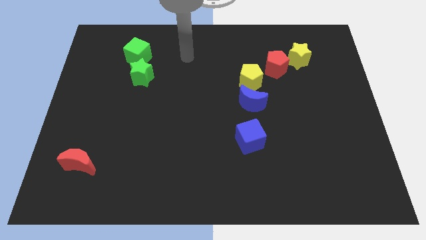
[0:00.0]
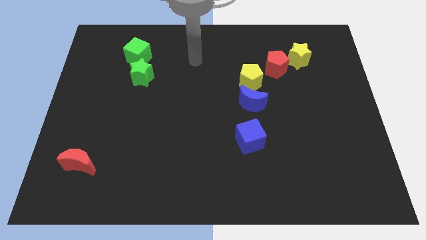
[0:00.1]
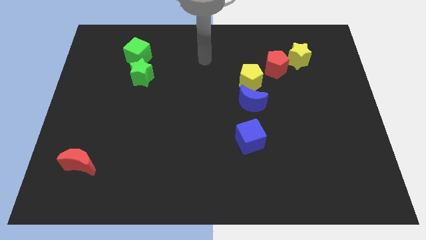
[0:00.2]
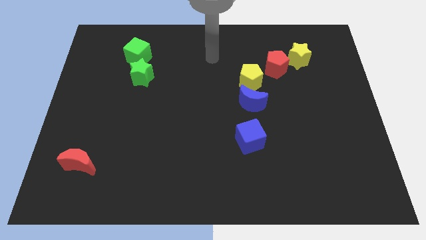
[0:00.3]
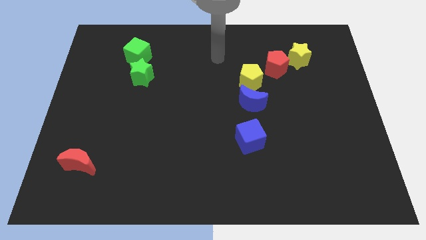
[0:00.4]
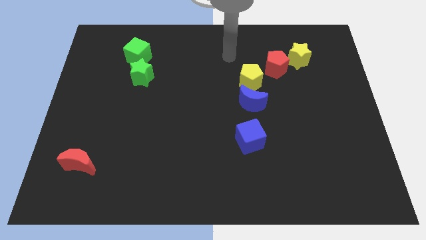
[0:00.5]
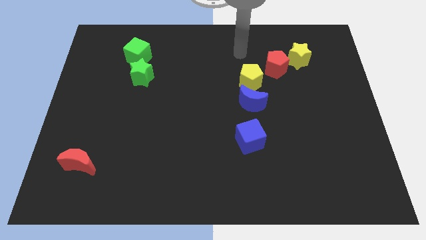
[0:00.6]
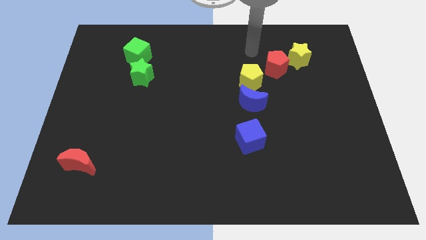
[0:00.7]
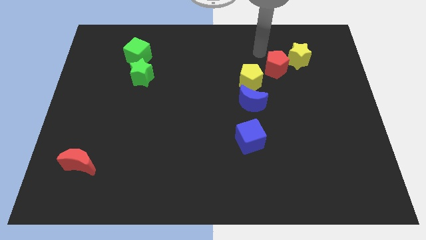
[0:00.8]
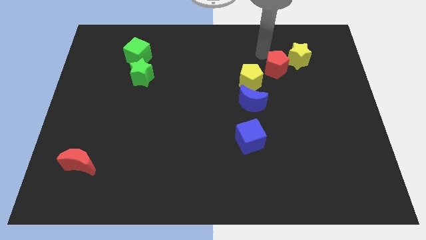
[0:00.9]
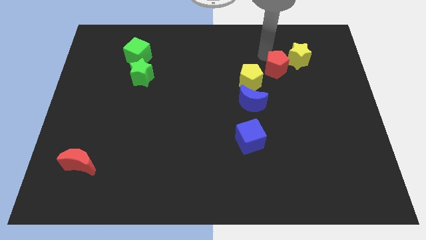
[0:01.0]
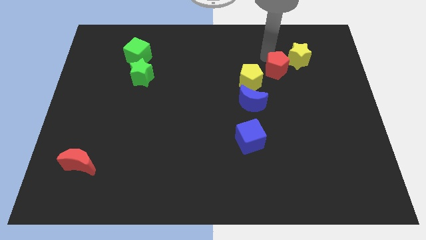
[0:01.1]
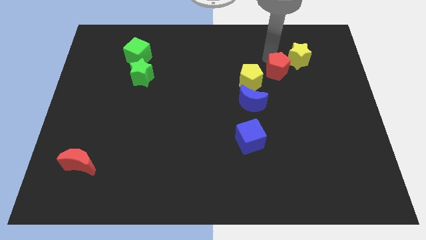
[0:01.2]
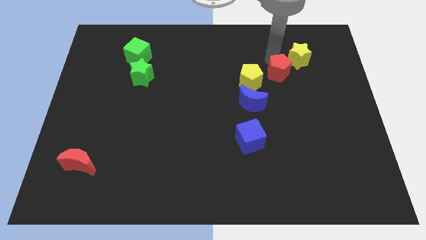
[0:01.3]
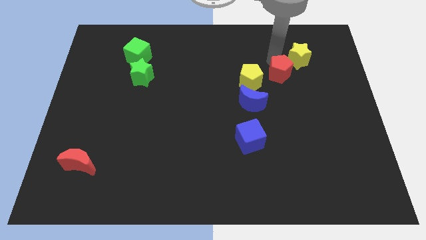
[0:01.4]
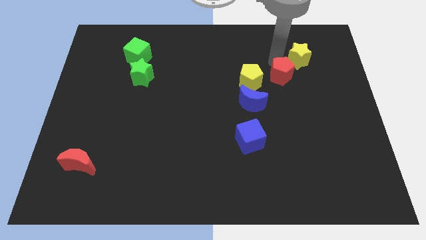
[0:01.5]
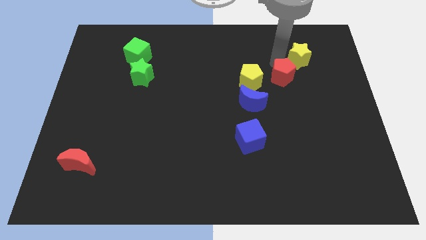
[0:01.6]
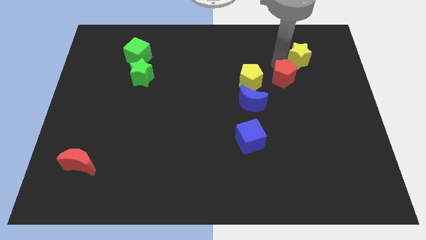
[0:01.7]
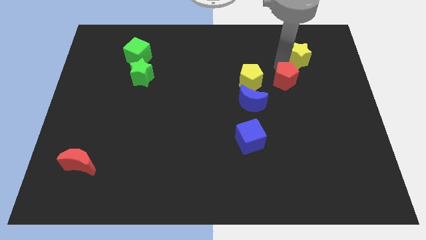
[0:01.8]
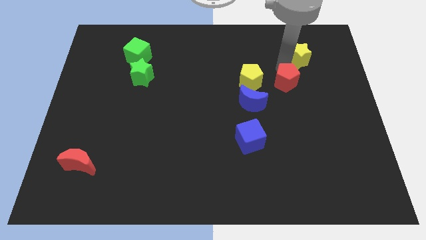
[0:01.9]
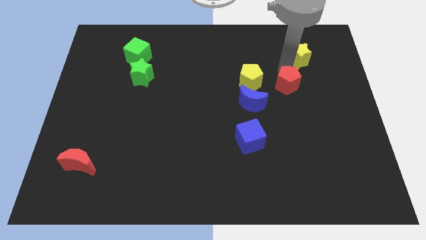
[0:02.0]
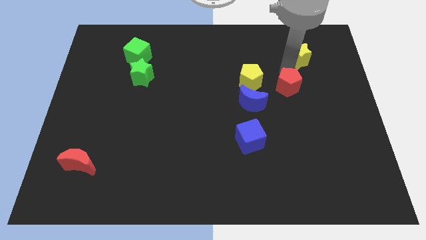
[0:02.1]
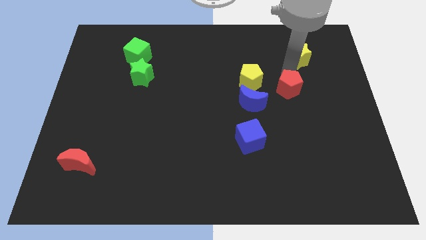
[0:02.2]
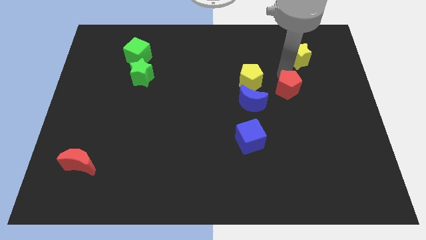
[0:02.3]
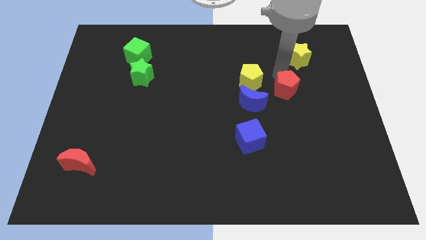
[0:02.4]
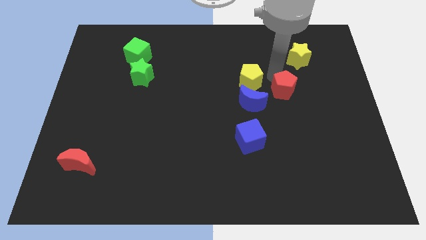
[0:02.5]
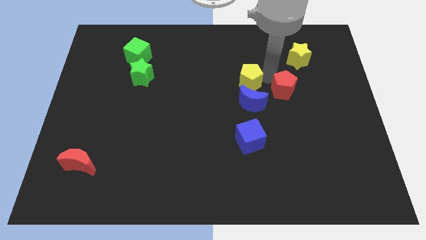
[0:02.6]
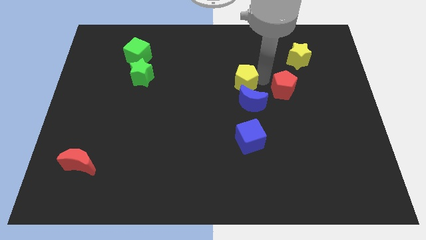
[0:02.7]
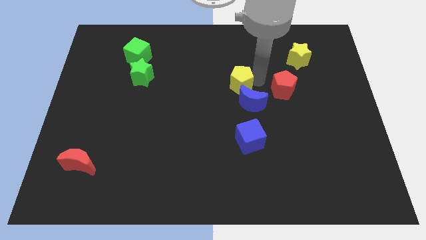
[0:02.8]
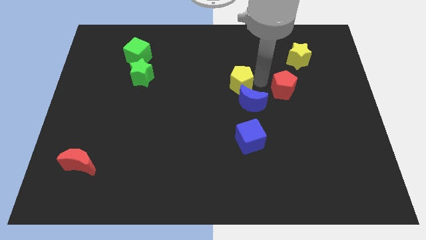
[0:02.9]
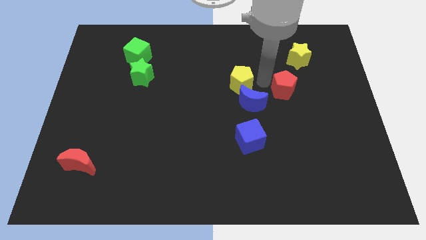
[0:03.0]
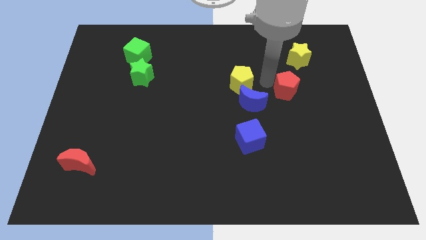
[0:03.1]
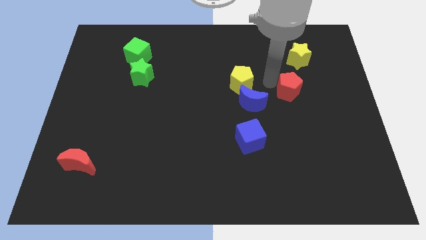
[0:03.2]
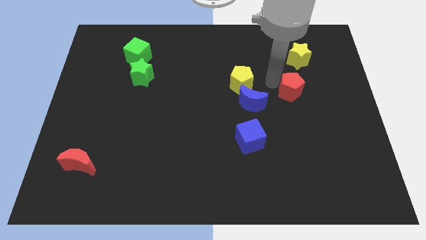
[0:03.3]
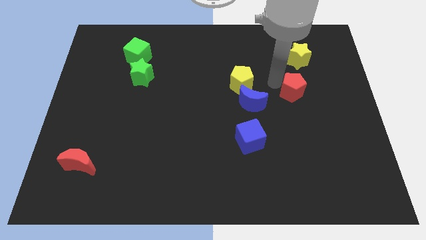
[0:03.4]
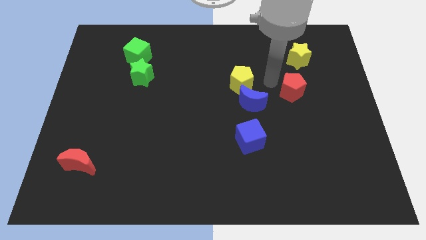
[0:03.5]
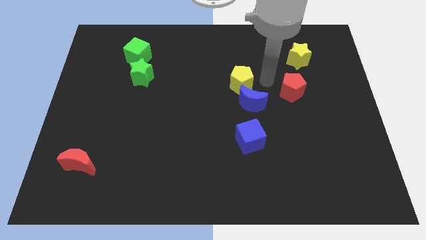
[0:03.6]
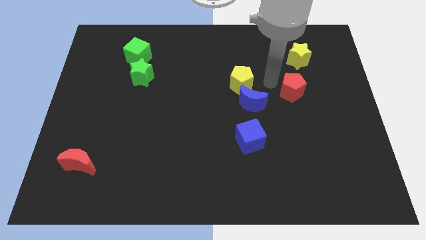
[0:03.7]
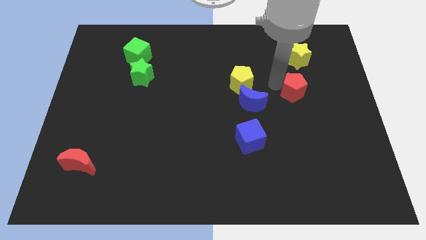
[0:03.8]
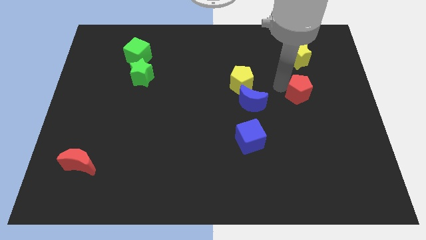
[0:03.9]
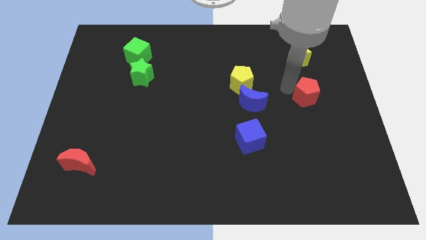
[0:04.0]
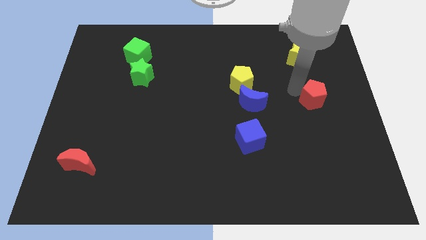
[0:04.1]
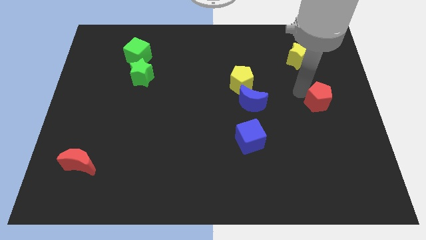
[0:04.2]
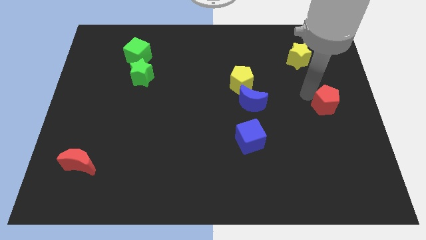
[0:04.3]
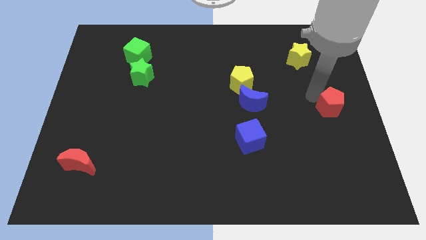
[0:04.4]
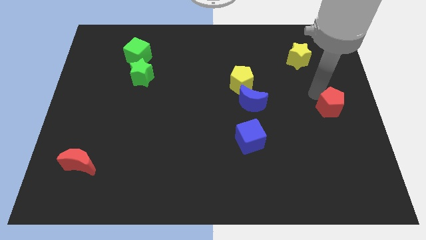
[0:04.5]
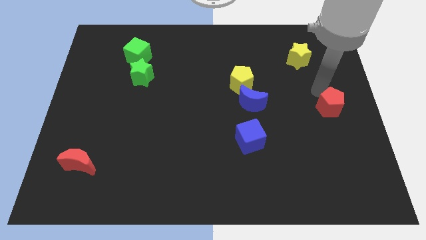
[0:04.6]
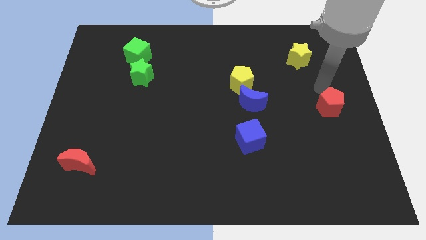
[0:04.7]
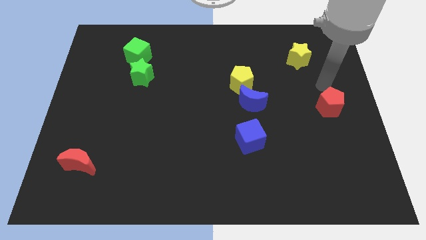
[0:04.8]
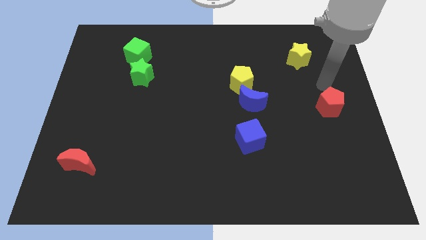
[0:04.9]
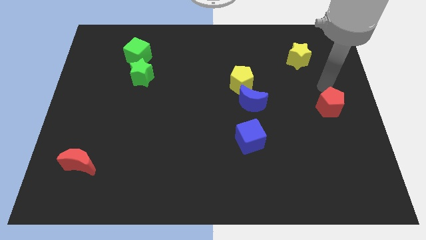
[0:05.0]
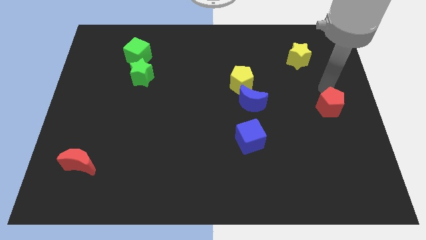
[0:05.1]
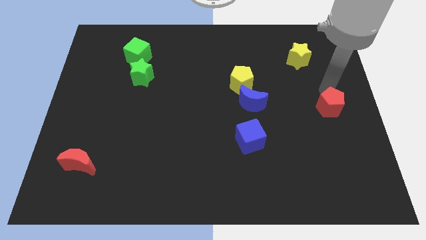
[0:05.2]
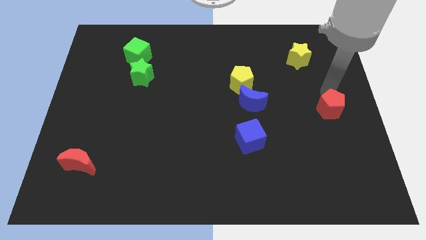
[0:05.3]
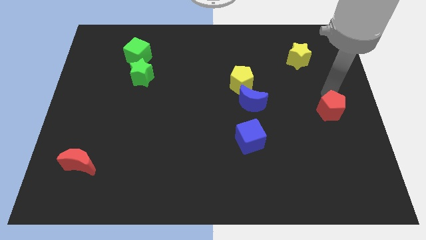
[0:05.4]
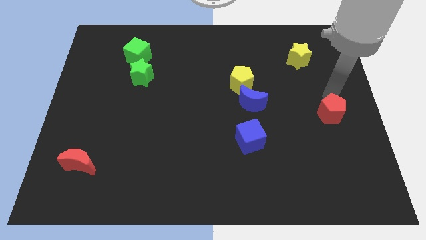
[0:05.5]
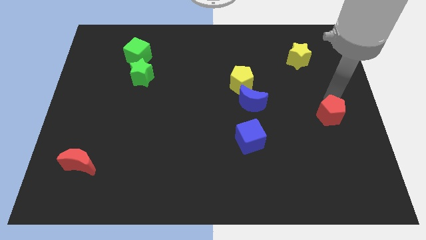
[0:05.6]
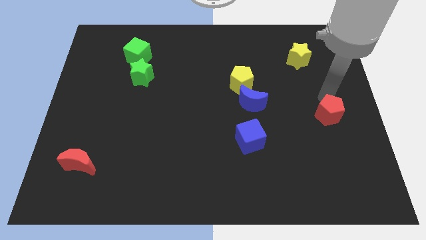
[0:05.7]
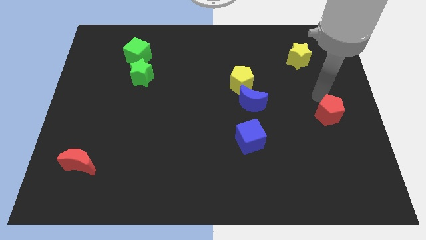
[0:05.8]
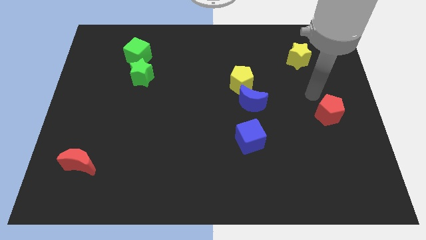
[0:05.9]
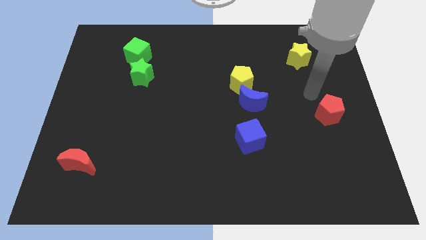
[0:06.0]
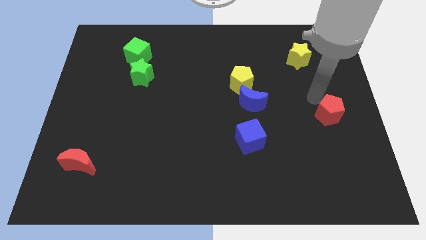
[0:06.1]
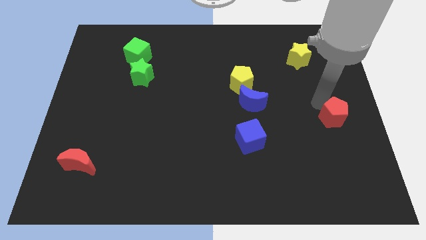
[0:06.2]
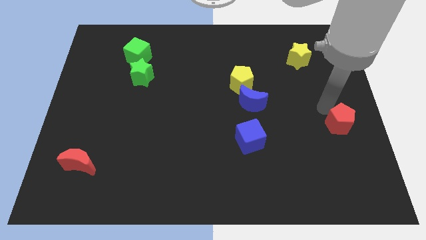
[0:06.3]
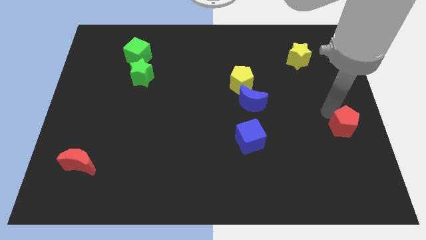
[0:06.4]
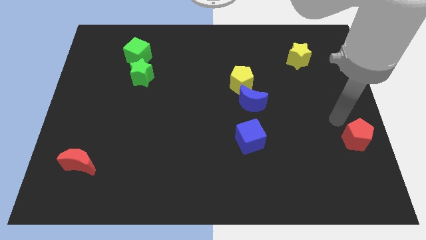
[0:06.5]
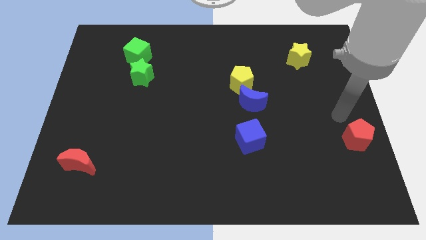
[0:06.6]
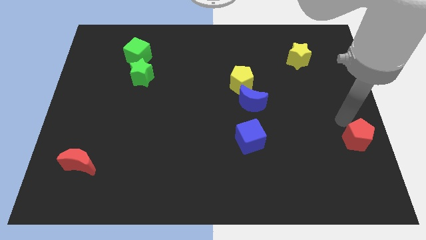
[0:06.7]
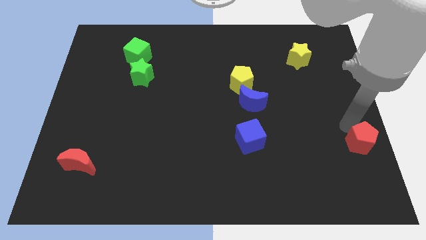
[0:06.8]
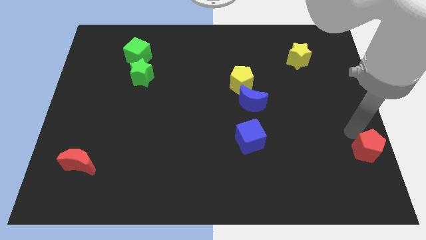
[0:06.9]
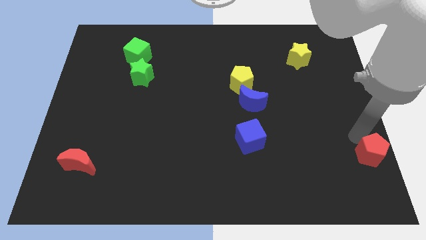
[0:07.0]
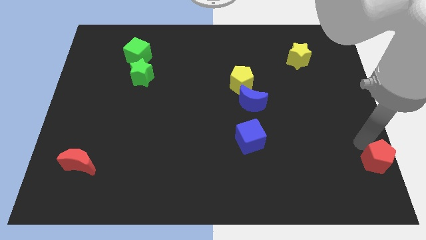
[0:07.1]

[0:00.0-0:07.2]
push the red pentagon to the bottom right
